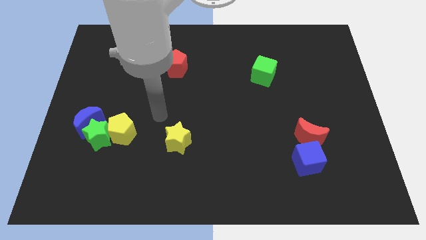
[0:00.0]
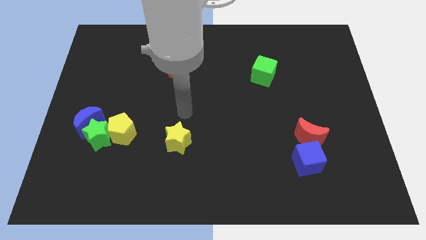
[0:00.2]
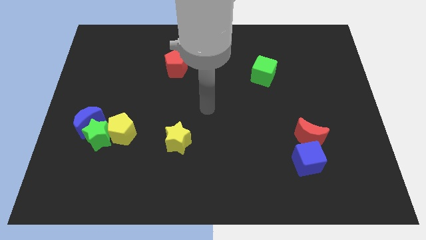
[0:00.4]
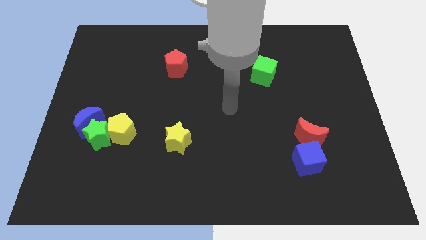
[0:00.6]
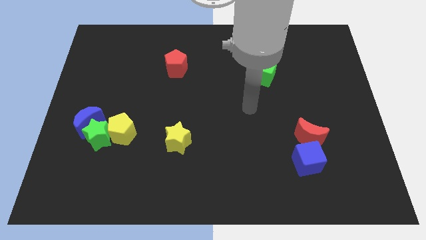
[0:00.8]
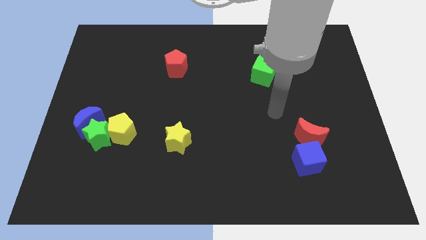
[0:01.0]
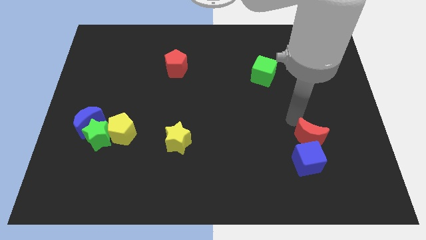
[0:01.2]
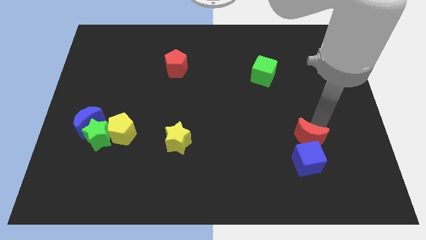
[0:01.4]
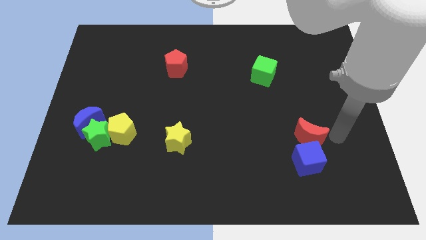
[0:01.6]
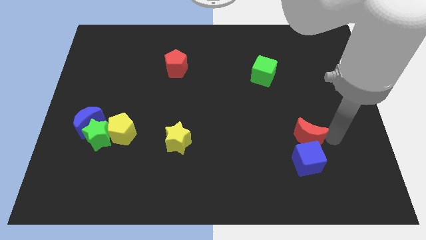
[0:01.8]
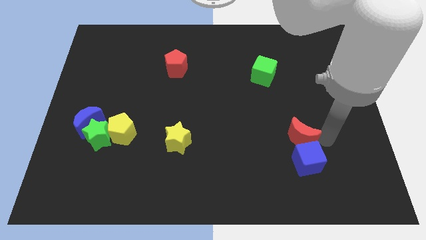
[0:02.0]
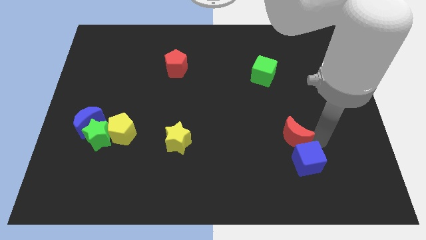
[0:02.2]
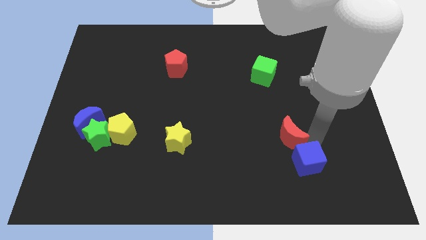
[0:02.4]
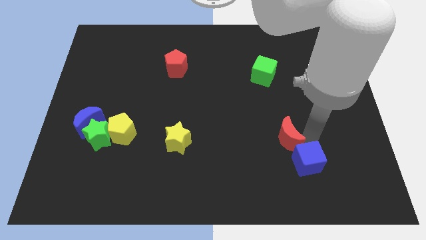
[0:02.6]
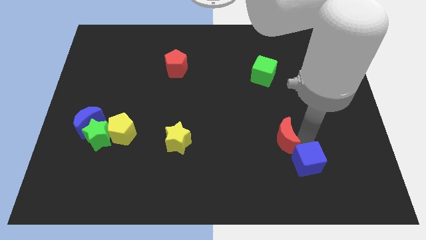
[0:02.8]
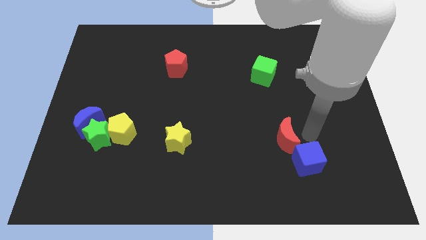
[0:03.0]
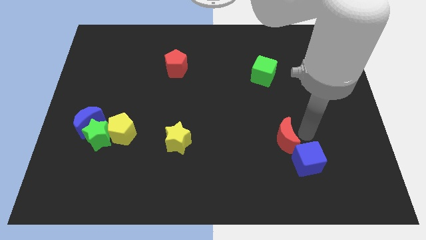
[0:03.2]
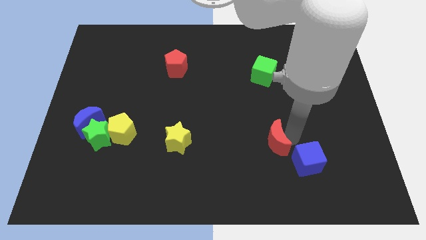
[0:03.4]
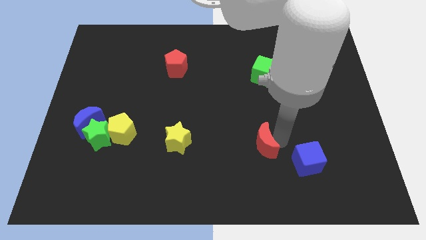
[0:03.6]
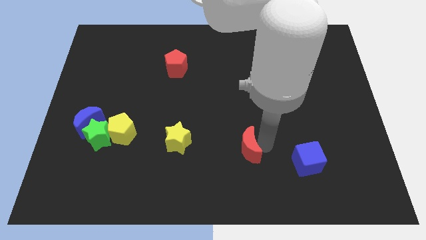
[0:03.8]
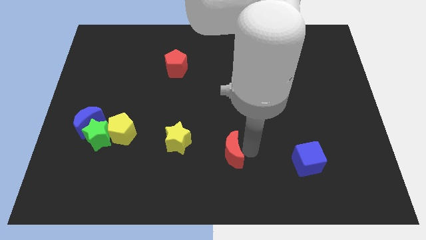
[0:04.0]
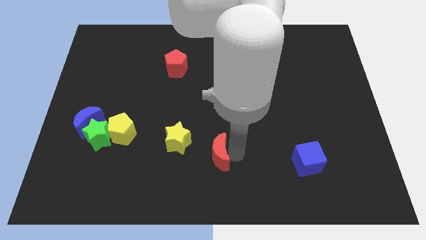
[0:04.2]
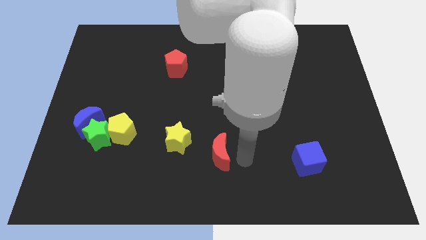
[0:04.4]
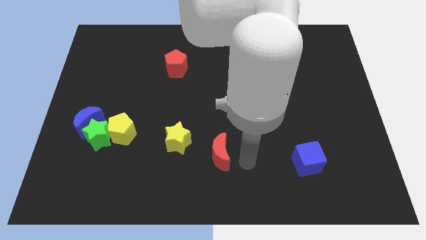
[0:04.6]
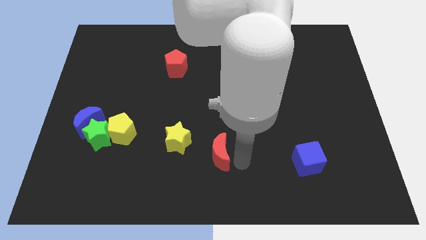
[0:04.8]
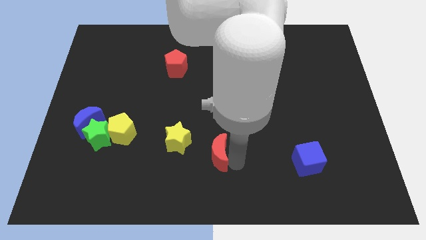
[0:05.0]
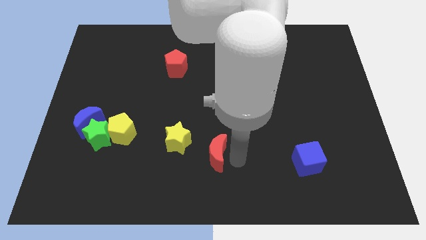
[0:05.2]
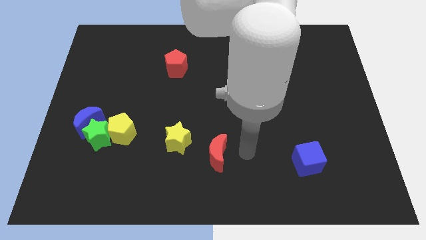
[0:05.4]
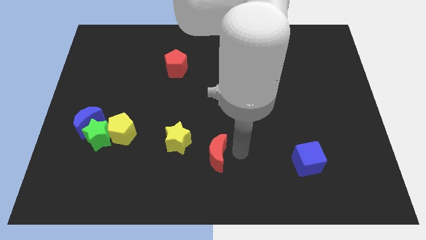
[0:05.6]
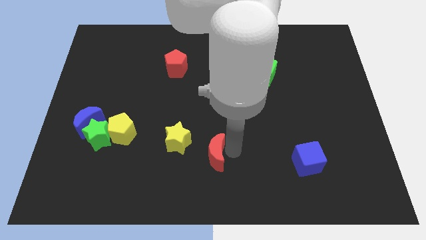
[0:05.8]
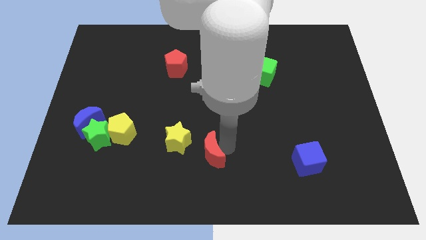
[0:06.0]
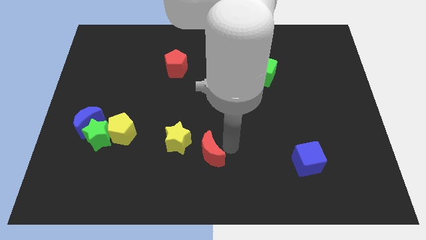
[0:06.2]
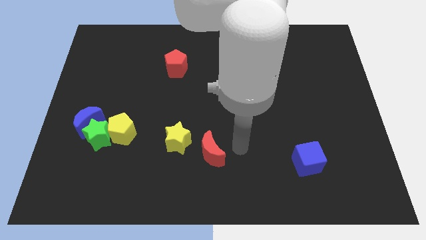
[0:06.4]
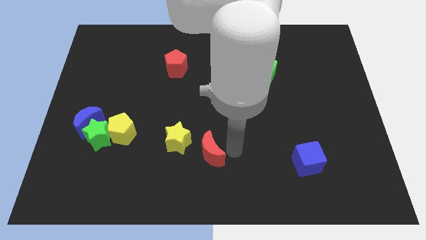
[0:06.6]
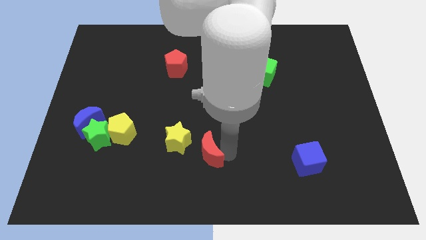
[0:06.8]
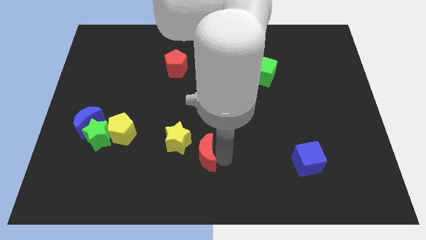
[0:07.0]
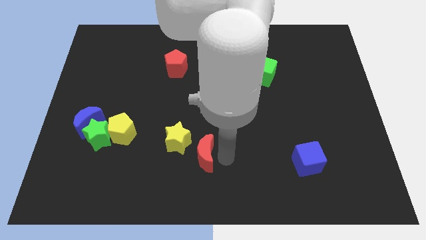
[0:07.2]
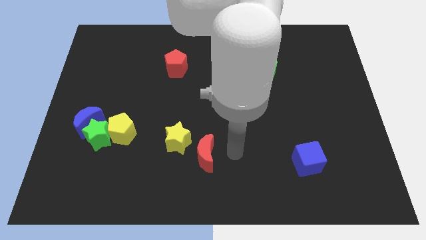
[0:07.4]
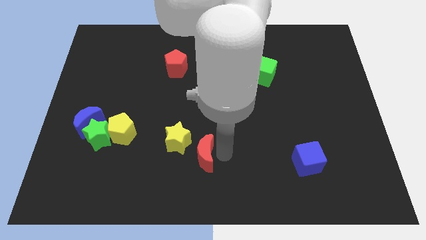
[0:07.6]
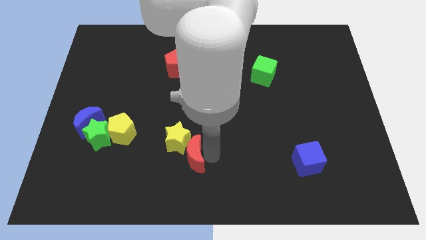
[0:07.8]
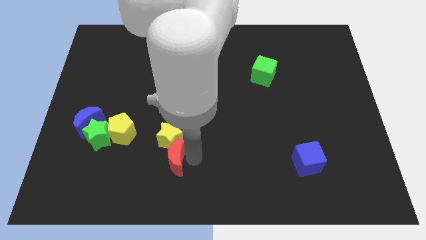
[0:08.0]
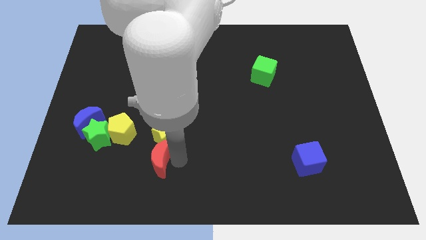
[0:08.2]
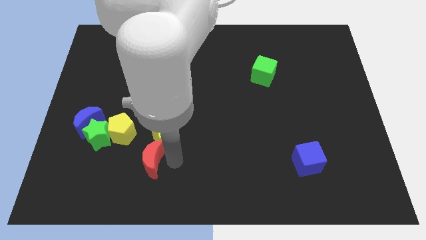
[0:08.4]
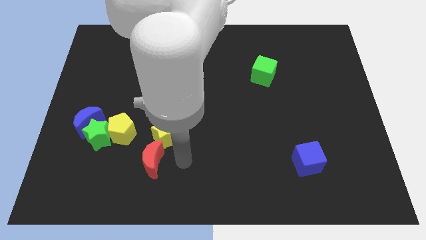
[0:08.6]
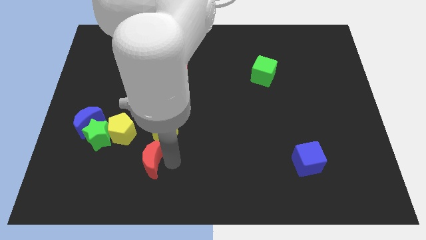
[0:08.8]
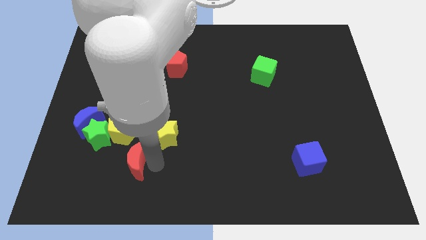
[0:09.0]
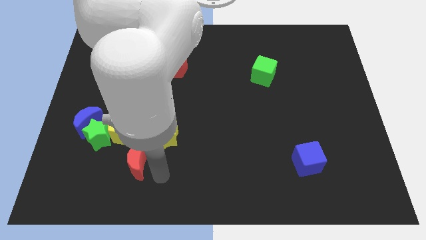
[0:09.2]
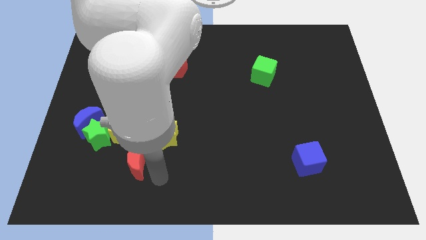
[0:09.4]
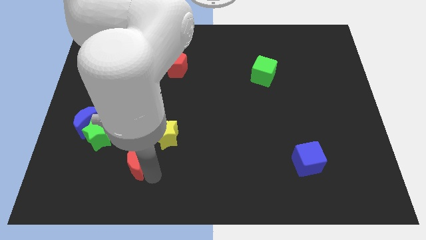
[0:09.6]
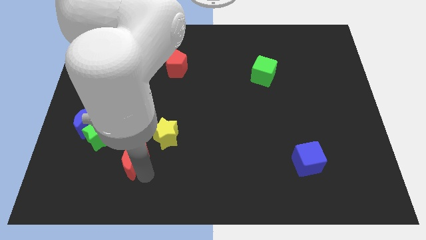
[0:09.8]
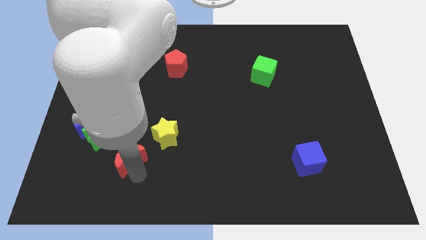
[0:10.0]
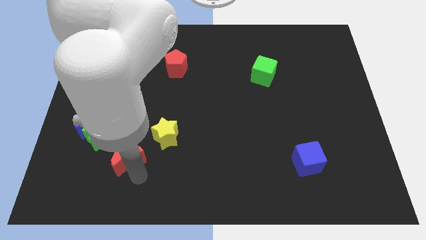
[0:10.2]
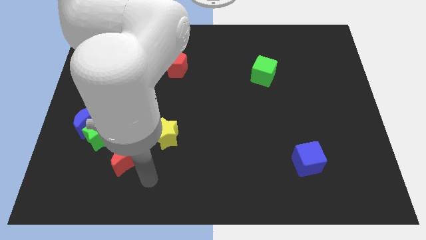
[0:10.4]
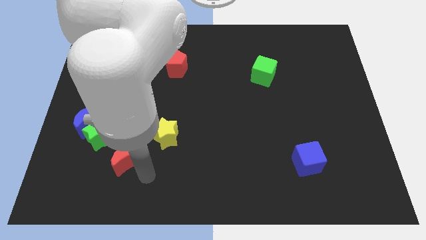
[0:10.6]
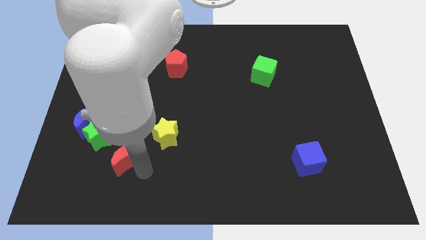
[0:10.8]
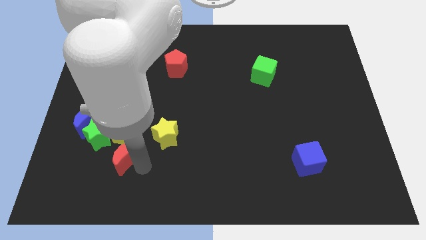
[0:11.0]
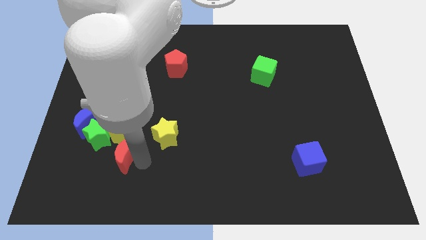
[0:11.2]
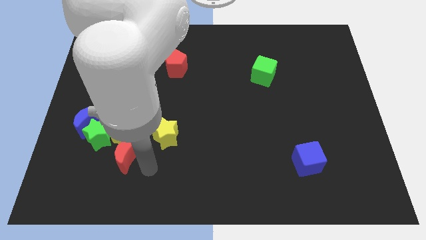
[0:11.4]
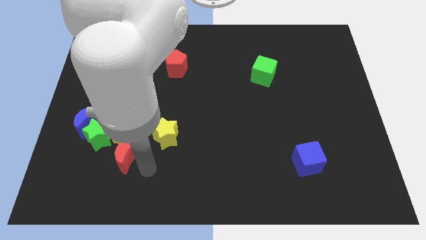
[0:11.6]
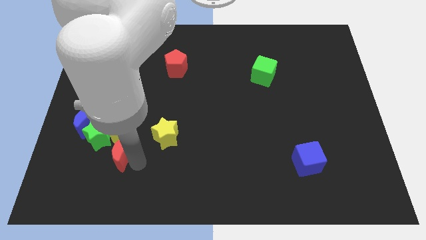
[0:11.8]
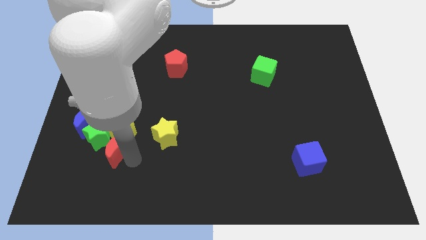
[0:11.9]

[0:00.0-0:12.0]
slide the red moon close to the green star

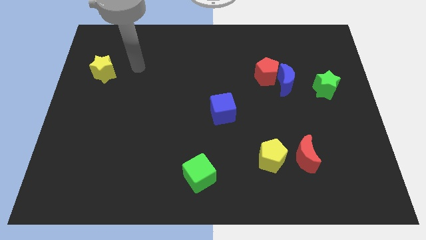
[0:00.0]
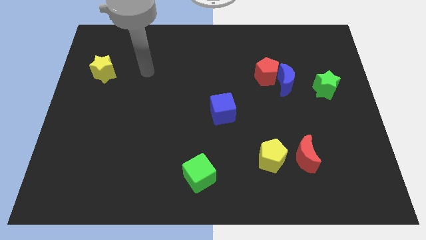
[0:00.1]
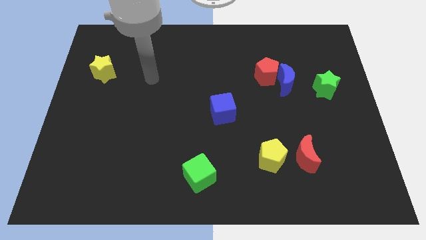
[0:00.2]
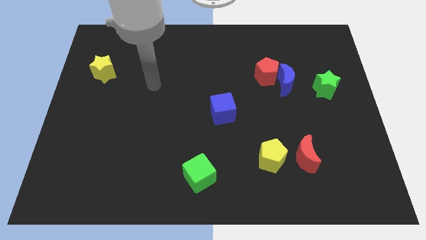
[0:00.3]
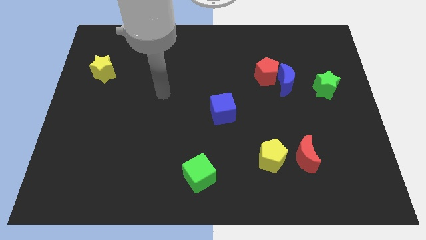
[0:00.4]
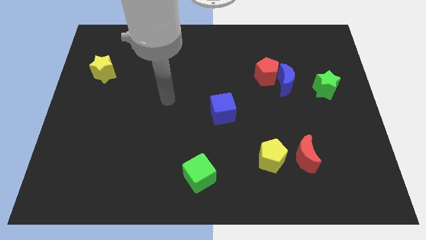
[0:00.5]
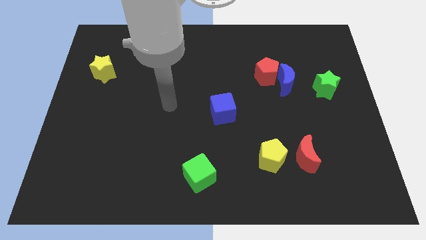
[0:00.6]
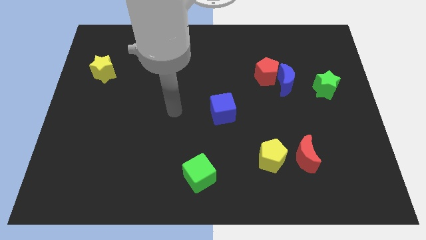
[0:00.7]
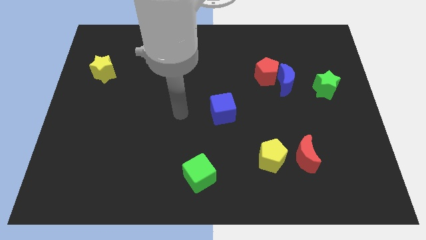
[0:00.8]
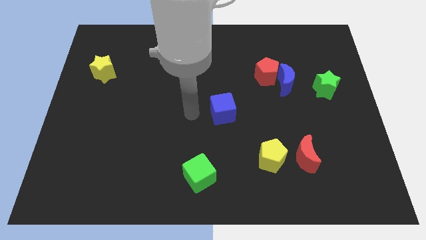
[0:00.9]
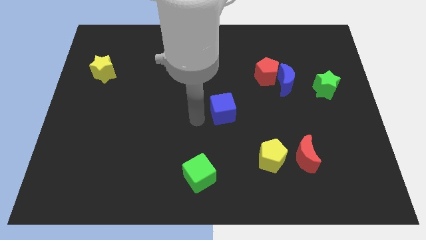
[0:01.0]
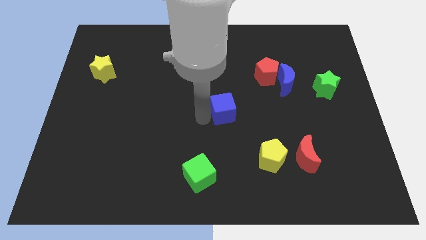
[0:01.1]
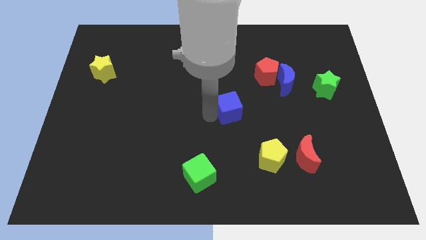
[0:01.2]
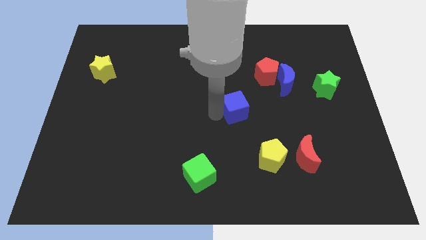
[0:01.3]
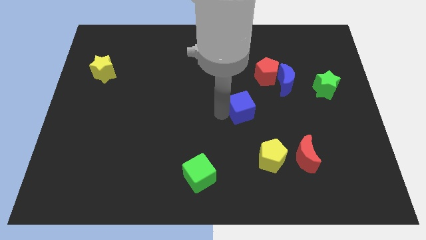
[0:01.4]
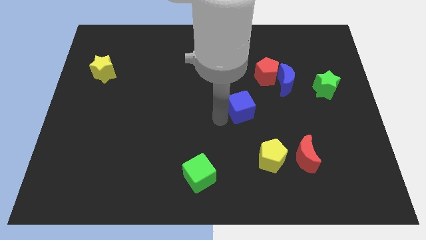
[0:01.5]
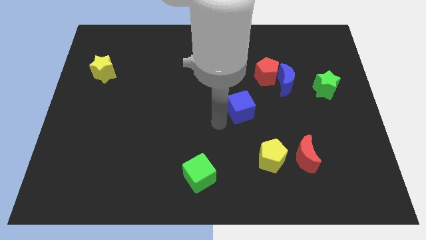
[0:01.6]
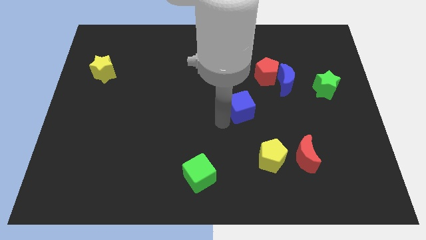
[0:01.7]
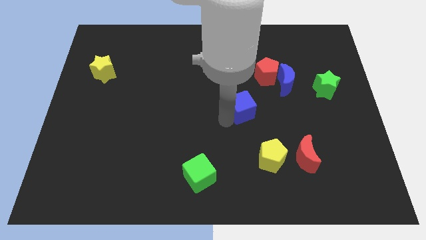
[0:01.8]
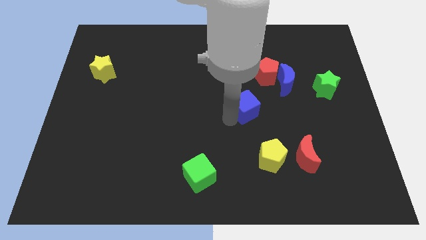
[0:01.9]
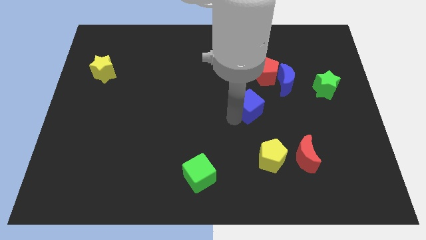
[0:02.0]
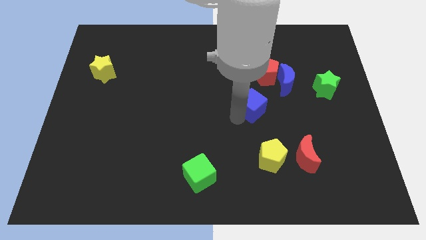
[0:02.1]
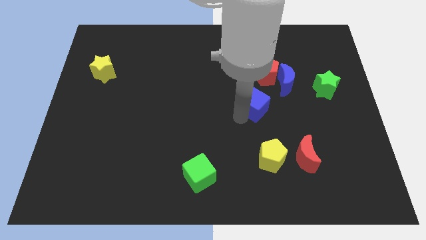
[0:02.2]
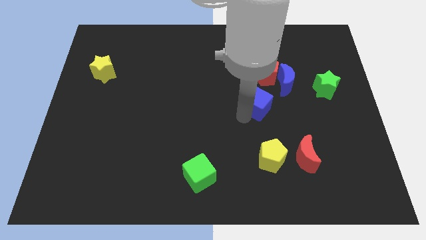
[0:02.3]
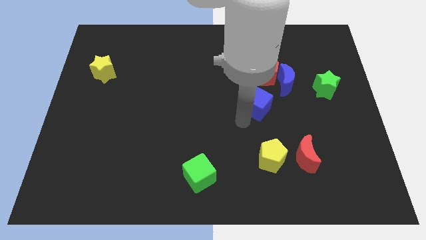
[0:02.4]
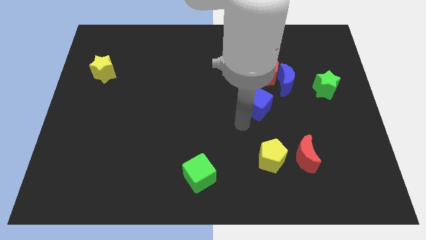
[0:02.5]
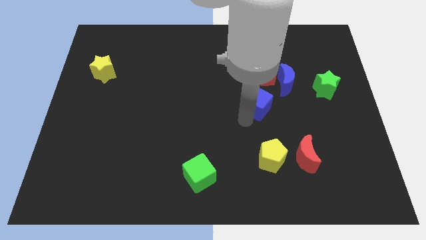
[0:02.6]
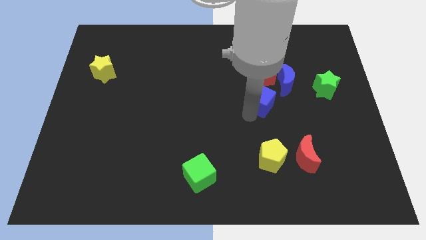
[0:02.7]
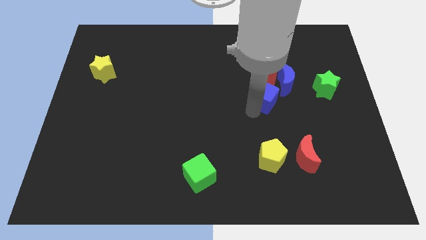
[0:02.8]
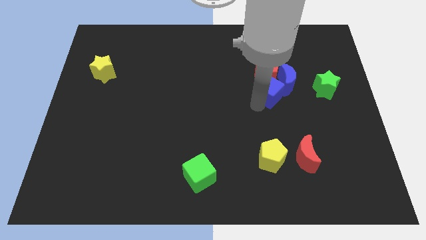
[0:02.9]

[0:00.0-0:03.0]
put the blue cube close to the blue moon
